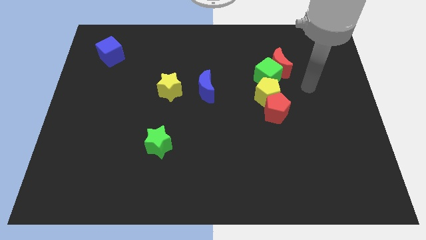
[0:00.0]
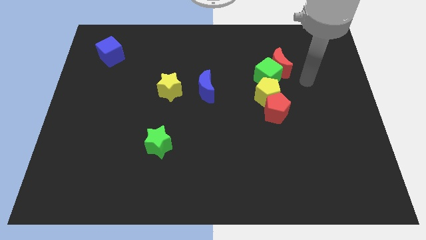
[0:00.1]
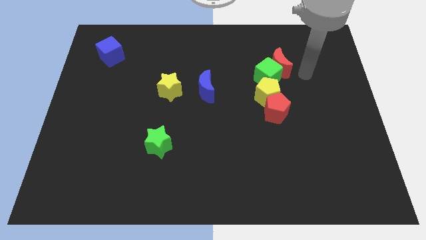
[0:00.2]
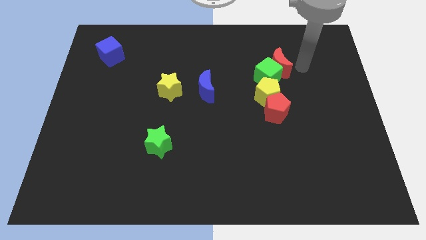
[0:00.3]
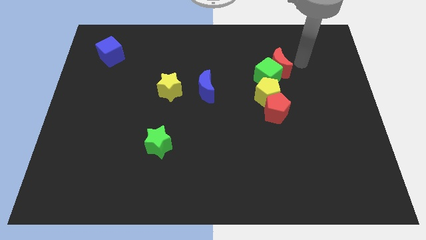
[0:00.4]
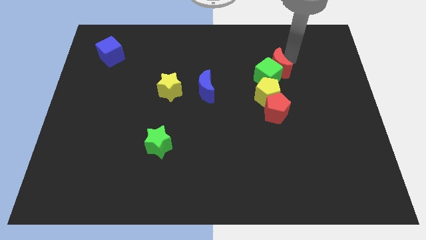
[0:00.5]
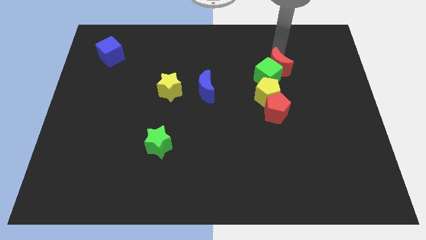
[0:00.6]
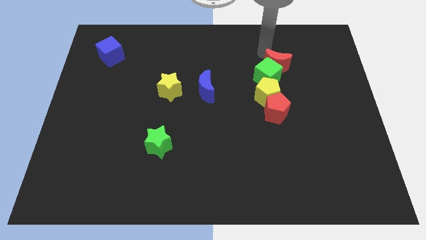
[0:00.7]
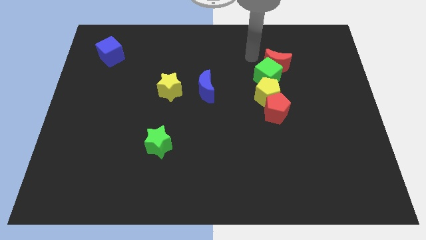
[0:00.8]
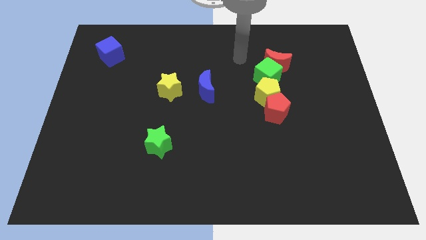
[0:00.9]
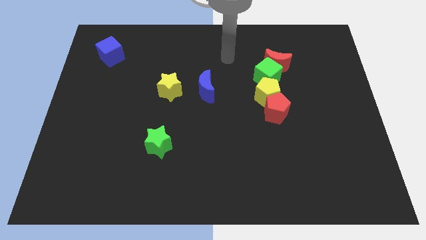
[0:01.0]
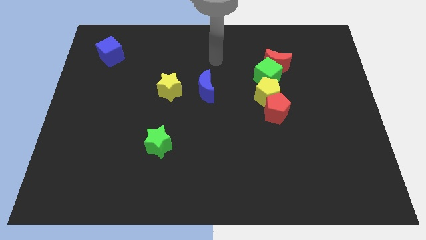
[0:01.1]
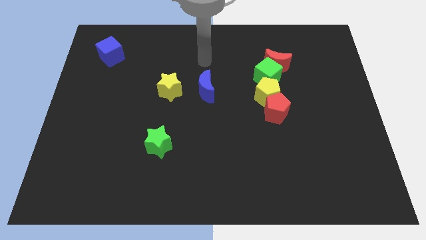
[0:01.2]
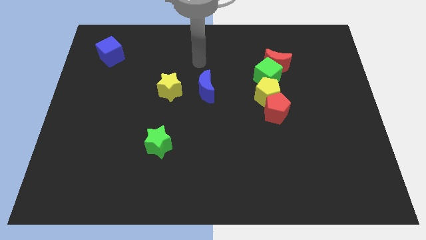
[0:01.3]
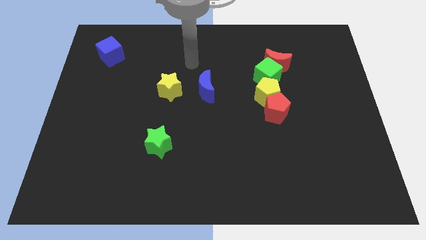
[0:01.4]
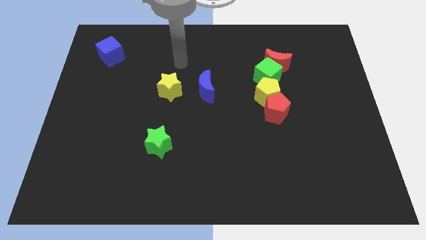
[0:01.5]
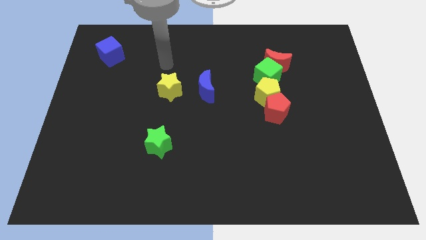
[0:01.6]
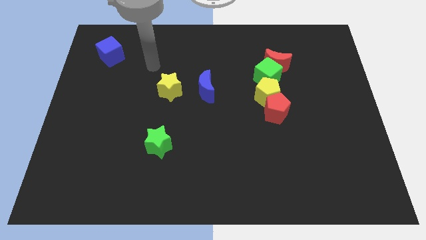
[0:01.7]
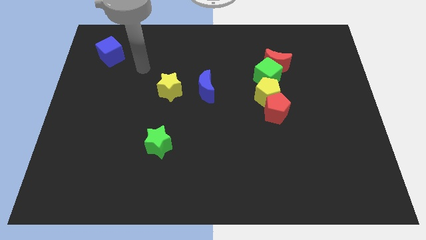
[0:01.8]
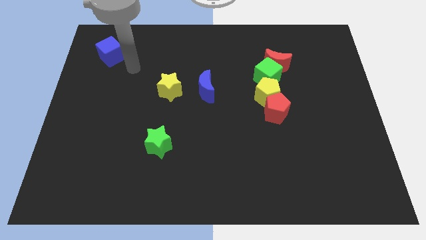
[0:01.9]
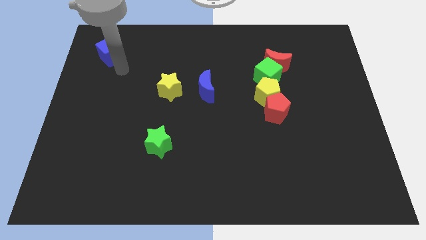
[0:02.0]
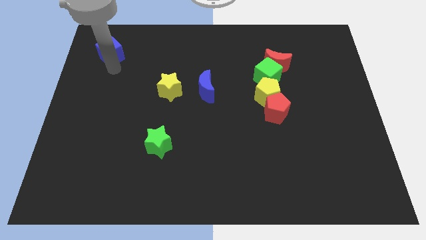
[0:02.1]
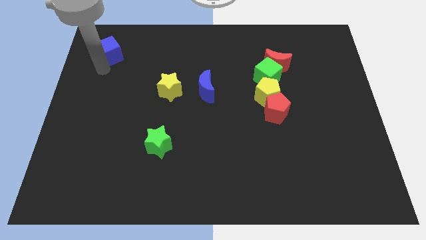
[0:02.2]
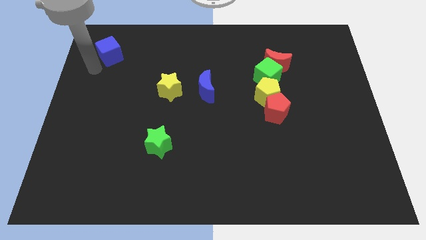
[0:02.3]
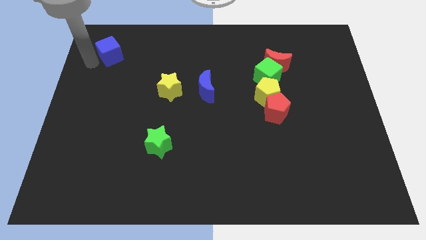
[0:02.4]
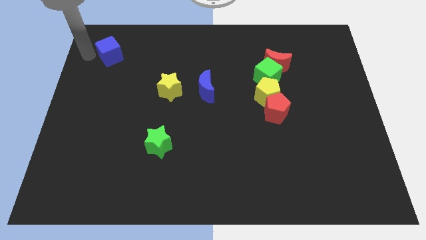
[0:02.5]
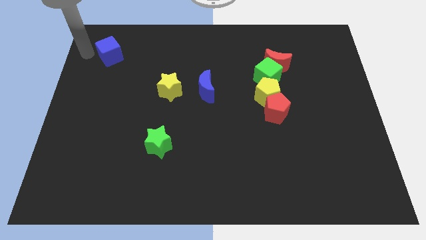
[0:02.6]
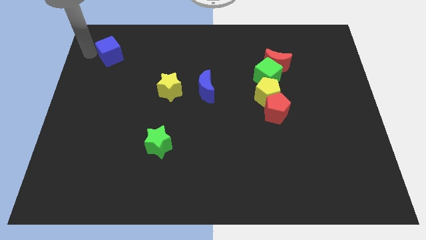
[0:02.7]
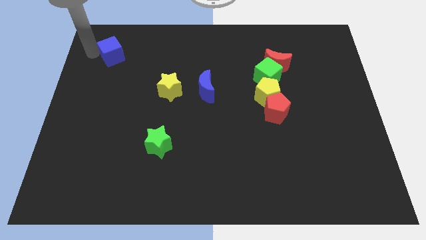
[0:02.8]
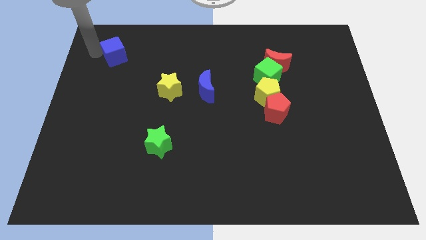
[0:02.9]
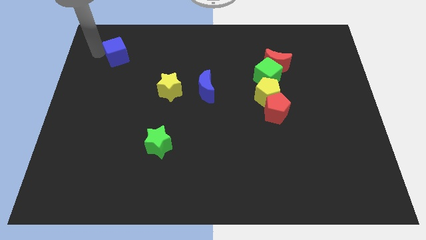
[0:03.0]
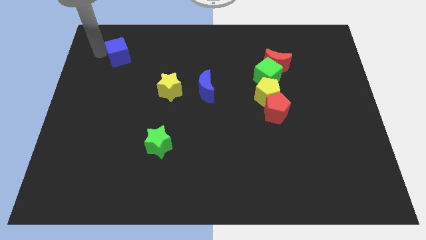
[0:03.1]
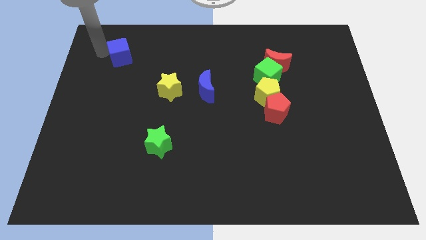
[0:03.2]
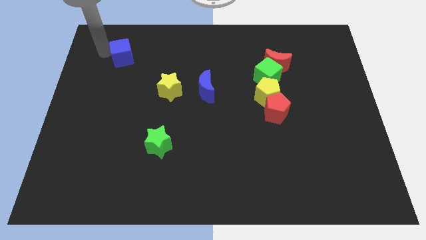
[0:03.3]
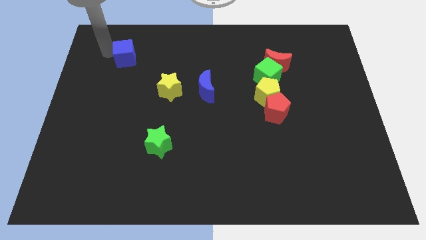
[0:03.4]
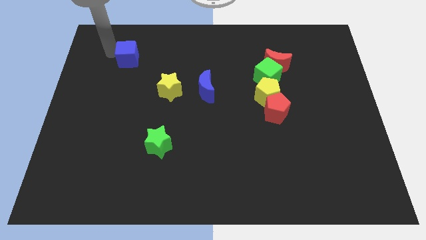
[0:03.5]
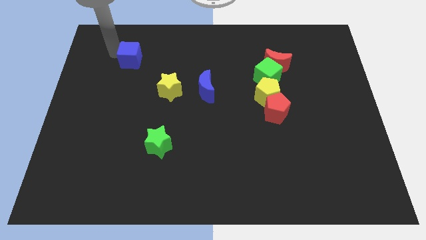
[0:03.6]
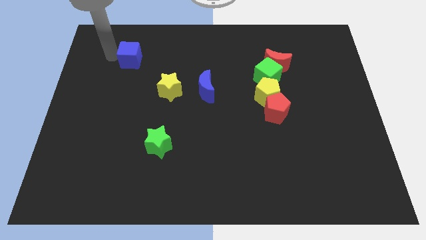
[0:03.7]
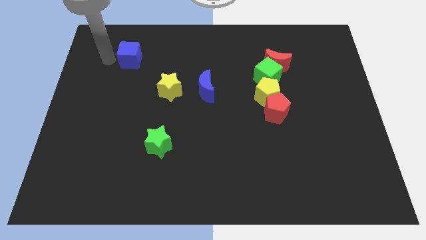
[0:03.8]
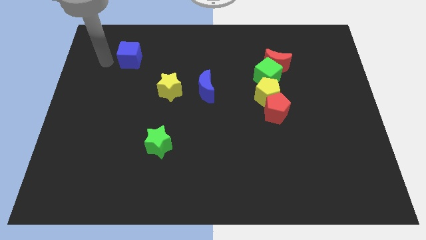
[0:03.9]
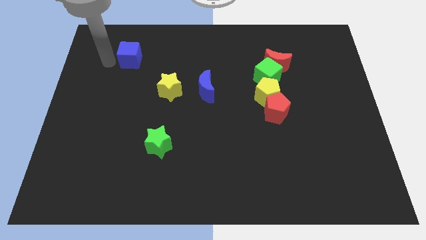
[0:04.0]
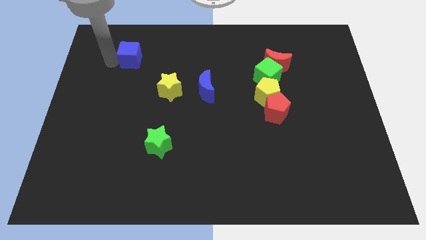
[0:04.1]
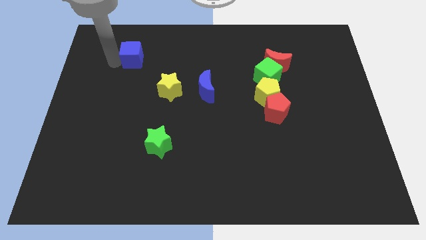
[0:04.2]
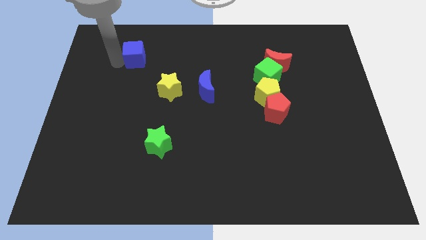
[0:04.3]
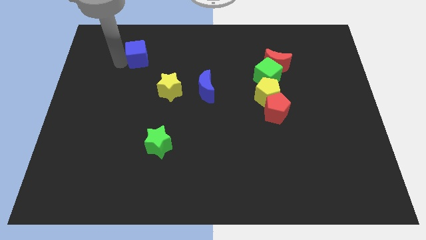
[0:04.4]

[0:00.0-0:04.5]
push the blue cube a little right

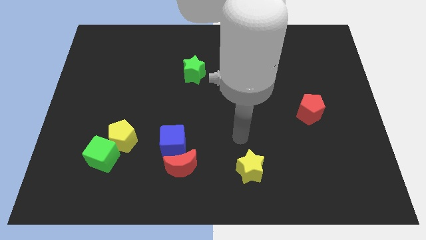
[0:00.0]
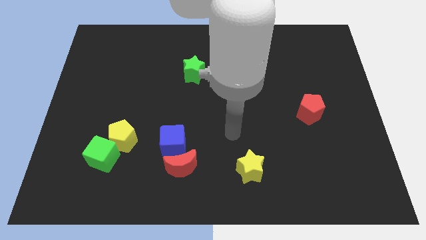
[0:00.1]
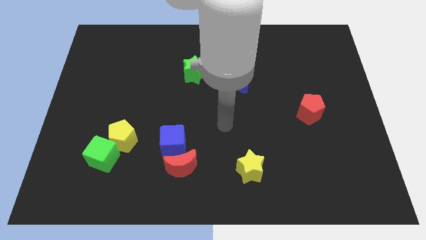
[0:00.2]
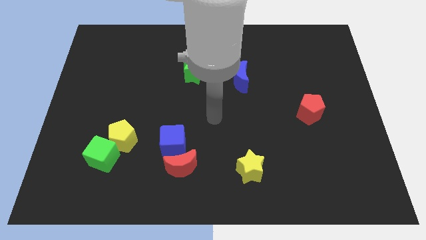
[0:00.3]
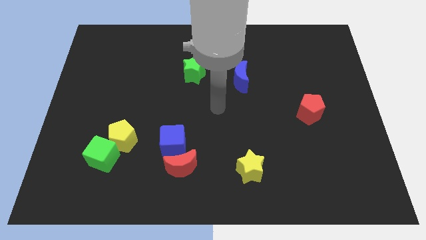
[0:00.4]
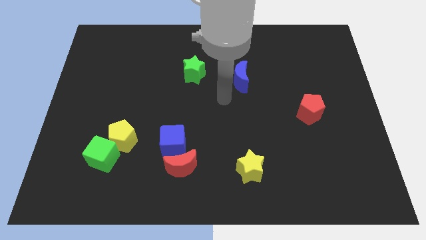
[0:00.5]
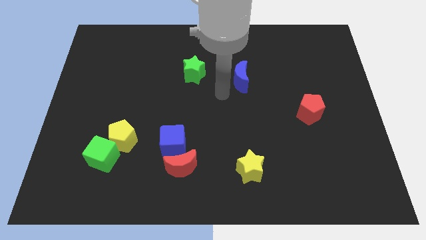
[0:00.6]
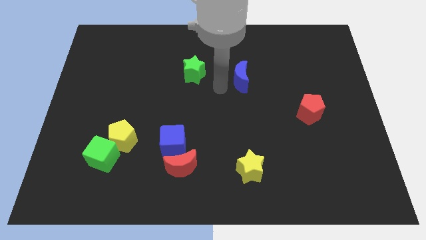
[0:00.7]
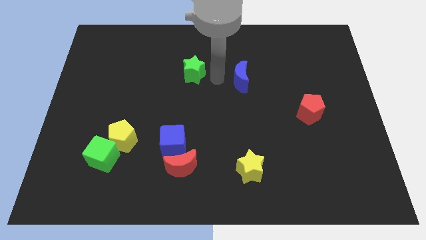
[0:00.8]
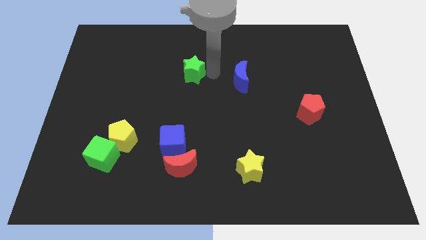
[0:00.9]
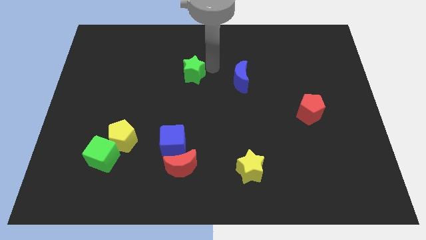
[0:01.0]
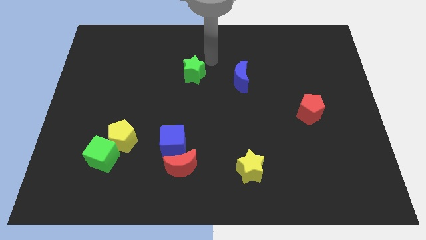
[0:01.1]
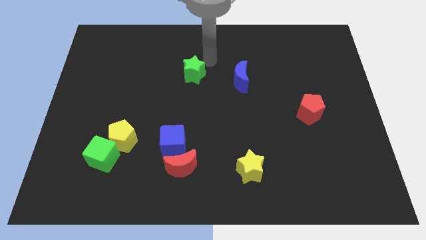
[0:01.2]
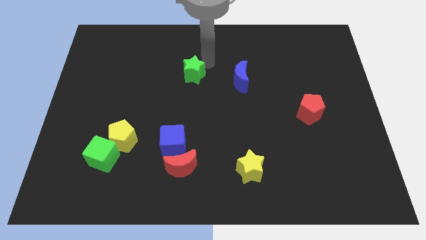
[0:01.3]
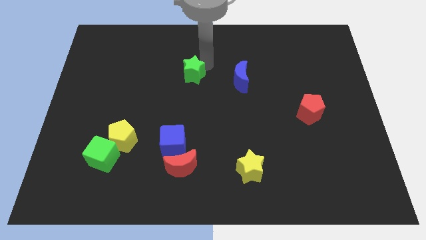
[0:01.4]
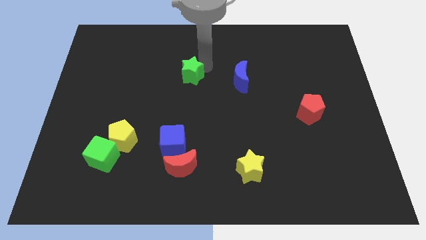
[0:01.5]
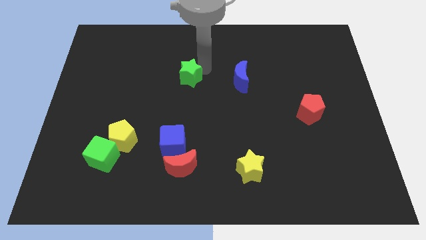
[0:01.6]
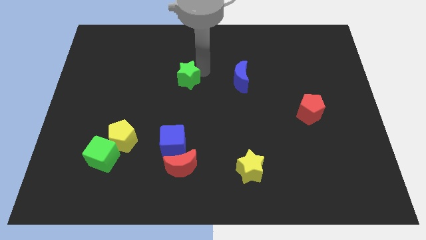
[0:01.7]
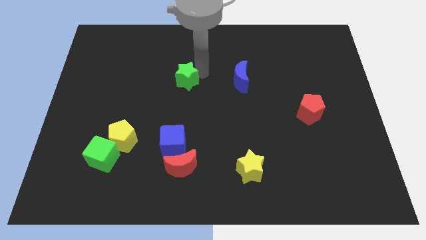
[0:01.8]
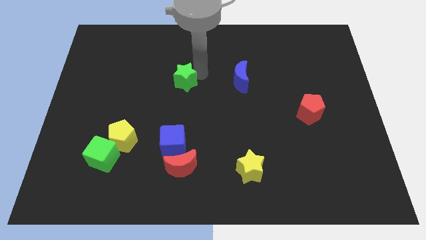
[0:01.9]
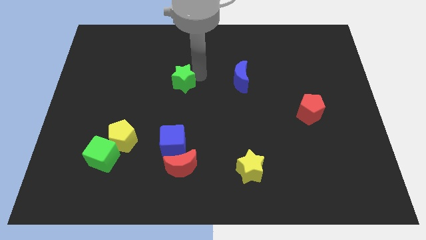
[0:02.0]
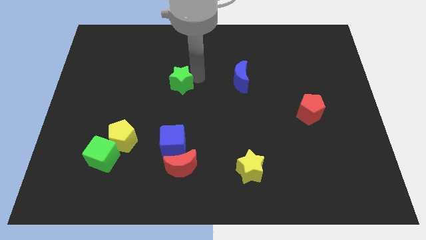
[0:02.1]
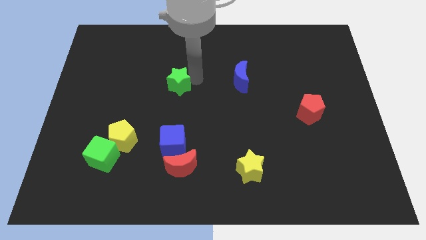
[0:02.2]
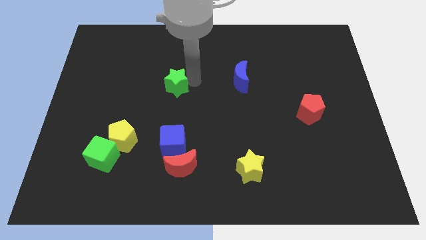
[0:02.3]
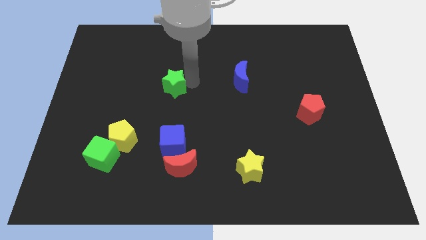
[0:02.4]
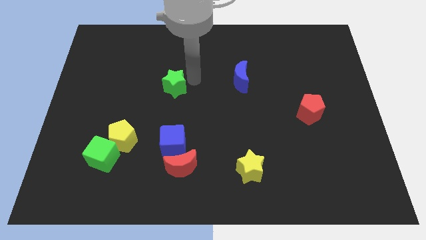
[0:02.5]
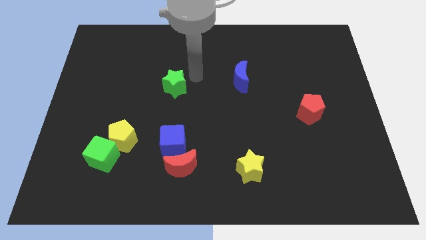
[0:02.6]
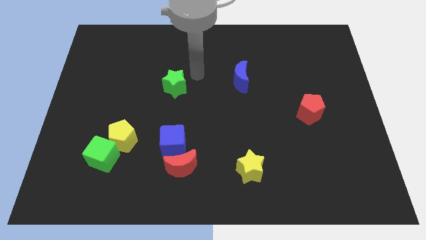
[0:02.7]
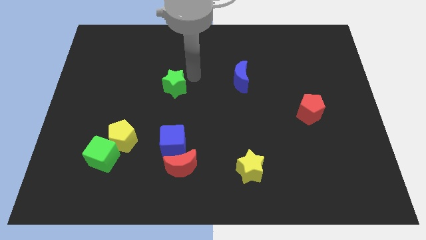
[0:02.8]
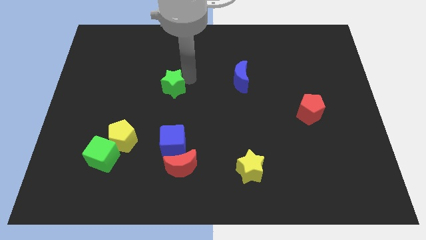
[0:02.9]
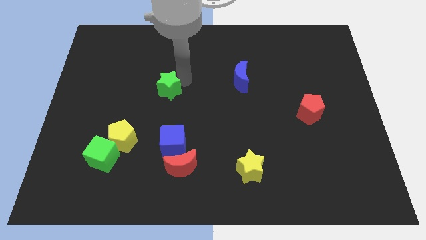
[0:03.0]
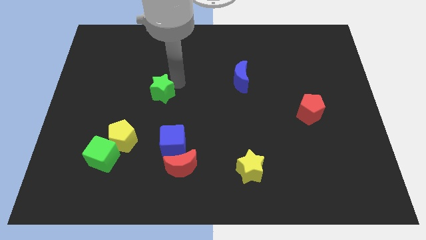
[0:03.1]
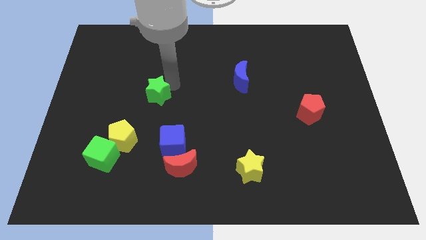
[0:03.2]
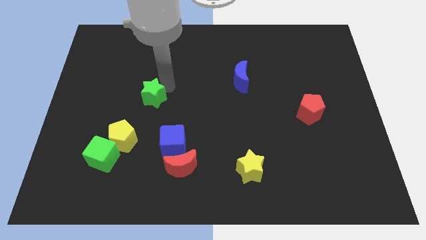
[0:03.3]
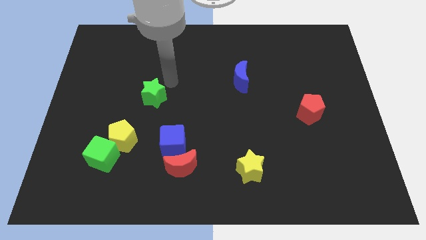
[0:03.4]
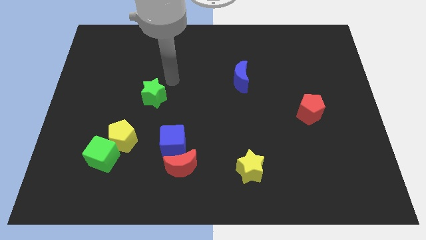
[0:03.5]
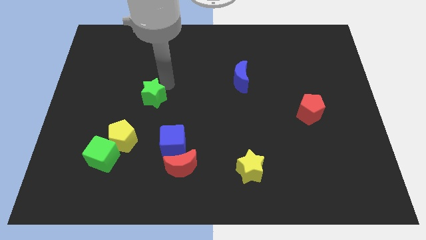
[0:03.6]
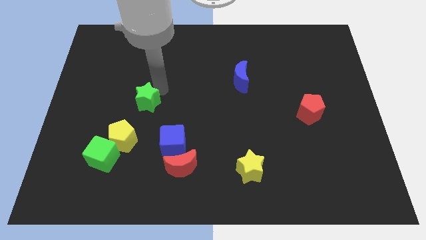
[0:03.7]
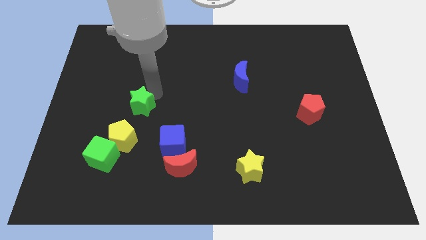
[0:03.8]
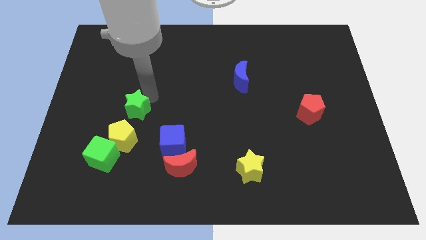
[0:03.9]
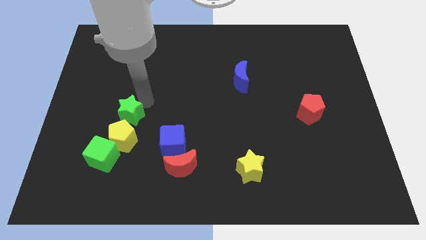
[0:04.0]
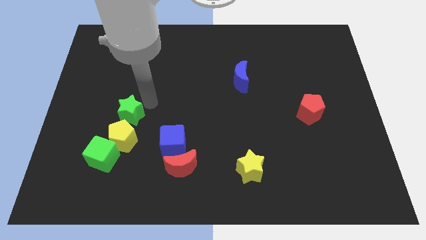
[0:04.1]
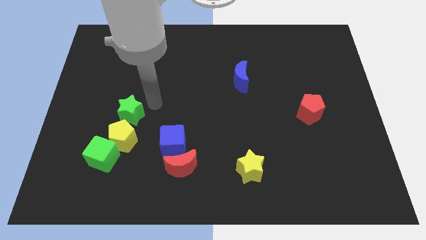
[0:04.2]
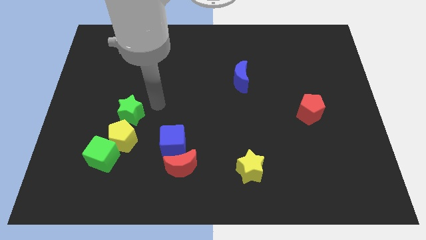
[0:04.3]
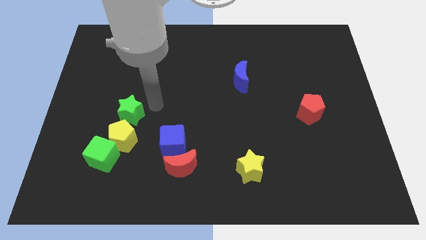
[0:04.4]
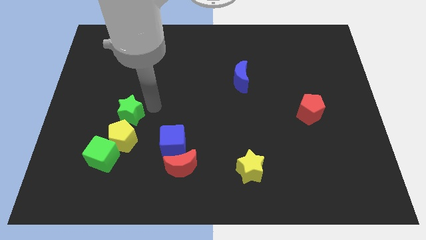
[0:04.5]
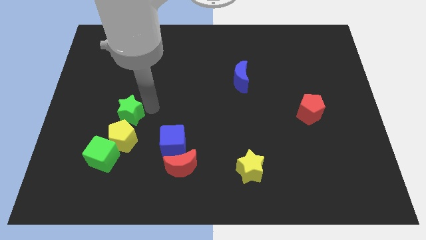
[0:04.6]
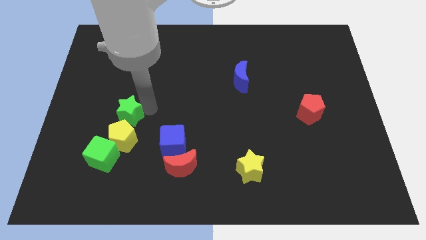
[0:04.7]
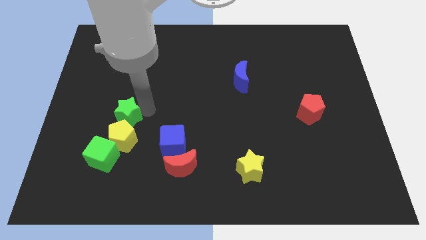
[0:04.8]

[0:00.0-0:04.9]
move the green star down and then to the left
